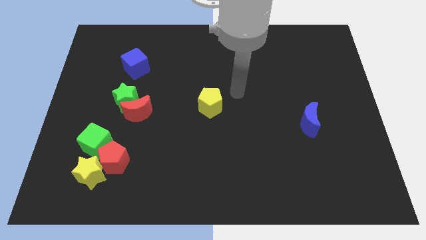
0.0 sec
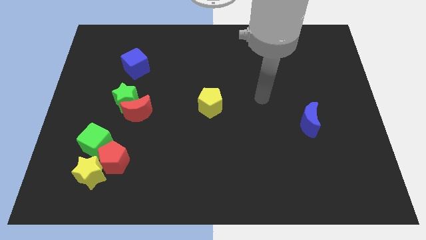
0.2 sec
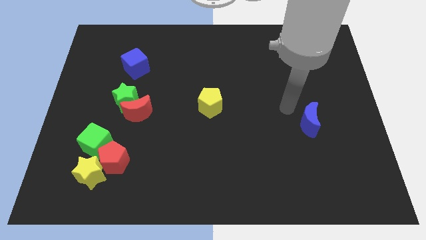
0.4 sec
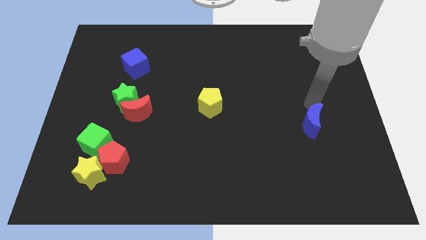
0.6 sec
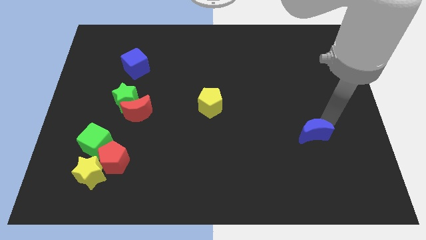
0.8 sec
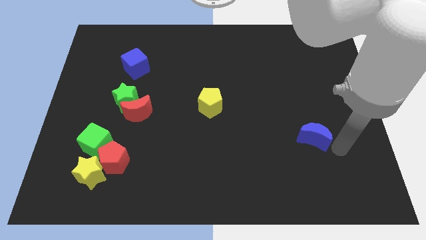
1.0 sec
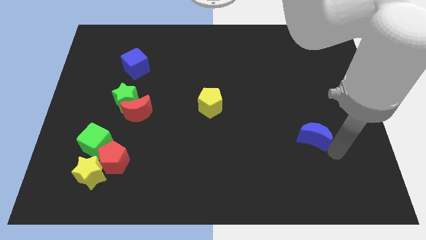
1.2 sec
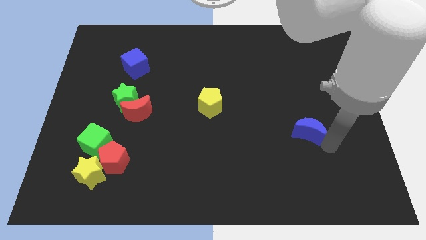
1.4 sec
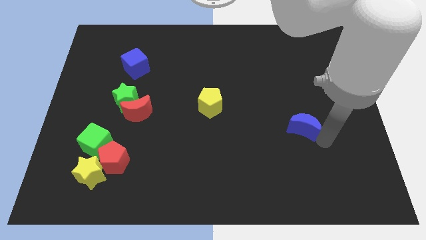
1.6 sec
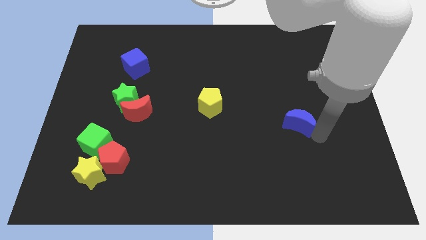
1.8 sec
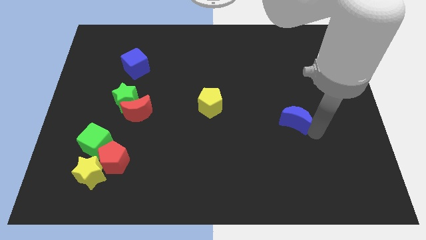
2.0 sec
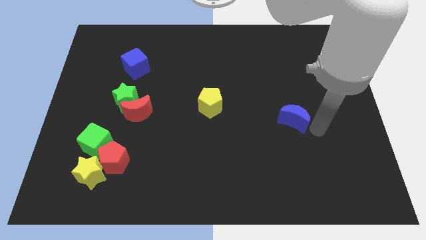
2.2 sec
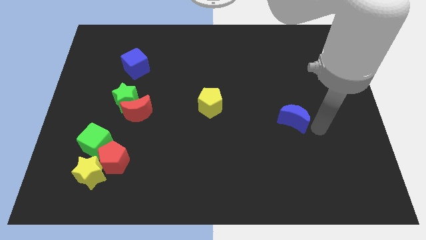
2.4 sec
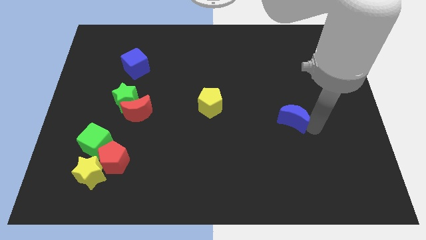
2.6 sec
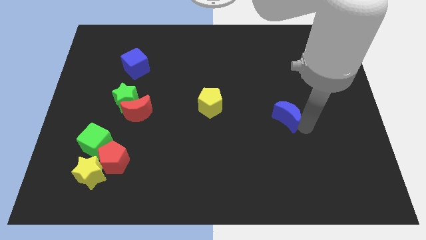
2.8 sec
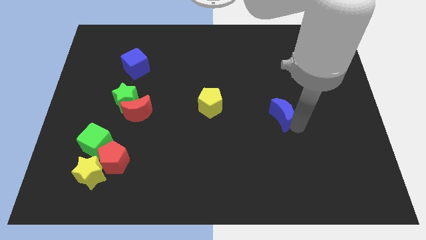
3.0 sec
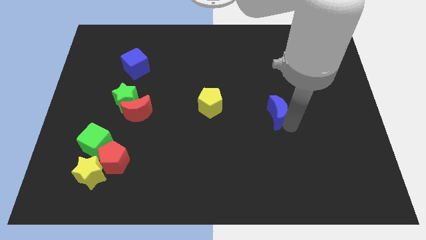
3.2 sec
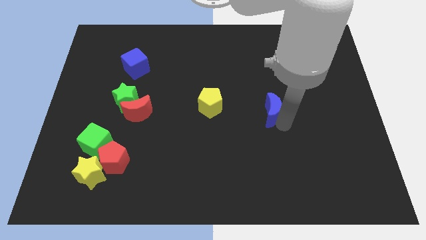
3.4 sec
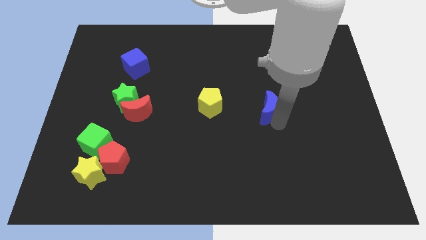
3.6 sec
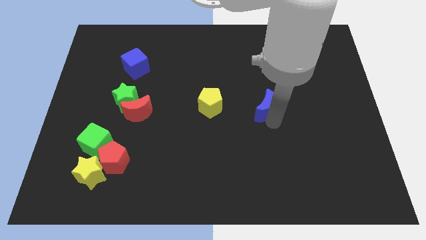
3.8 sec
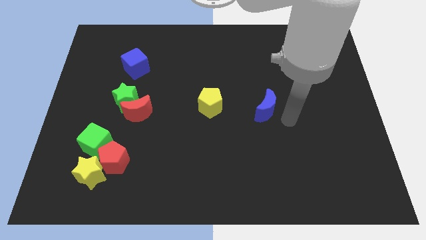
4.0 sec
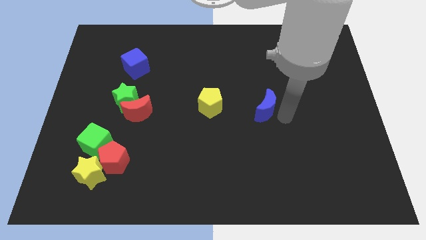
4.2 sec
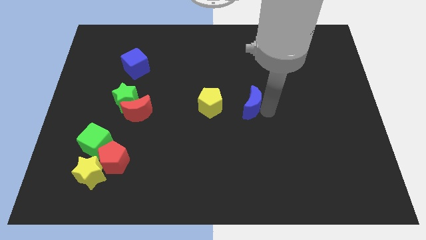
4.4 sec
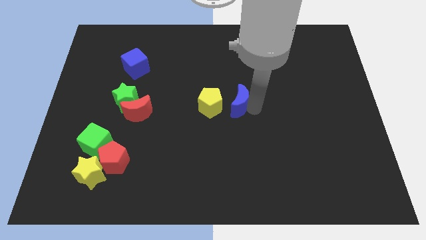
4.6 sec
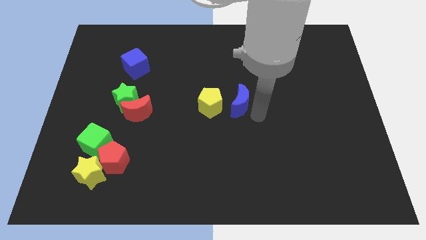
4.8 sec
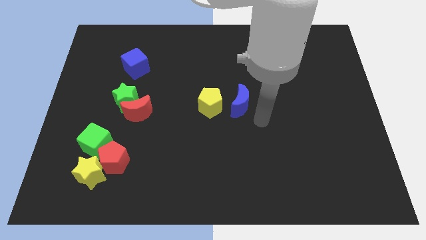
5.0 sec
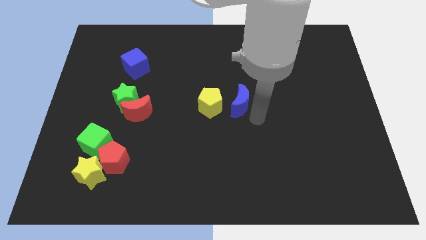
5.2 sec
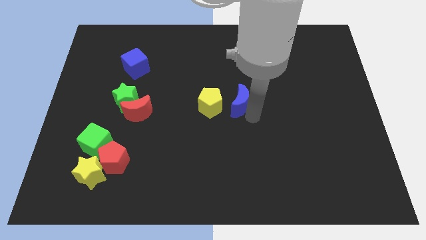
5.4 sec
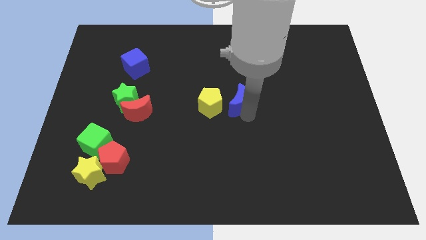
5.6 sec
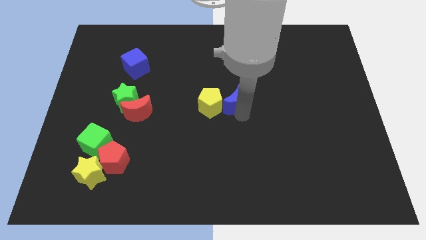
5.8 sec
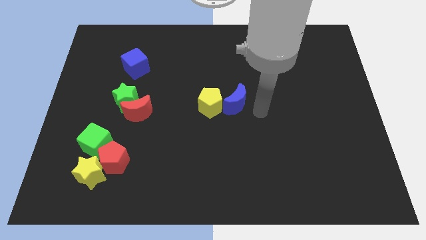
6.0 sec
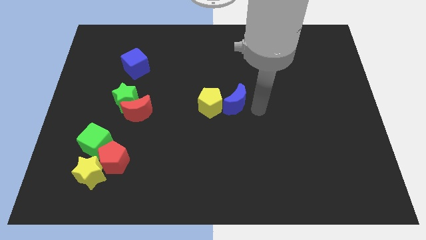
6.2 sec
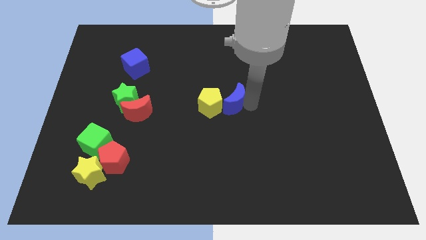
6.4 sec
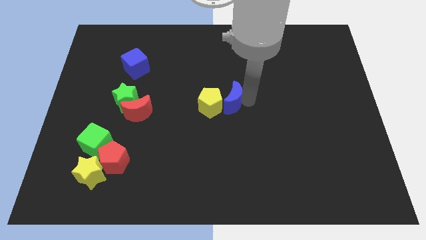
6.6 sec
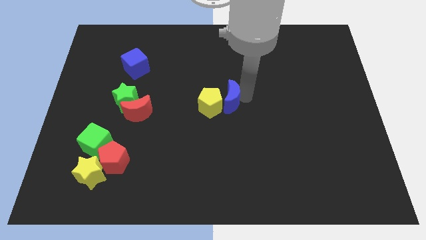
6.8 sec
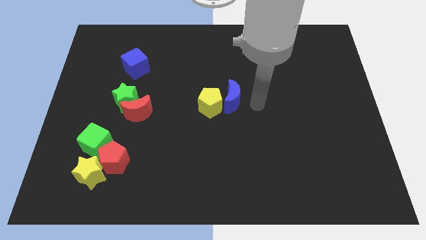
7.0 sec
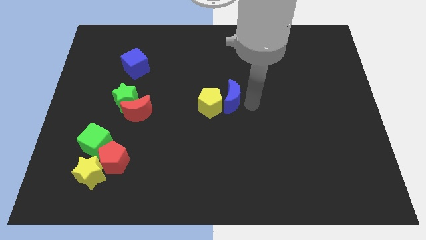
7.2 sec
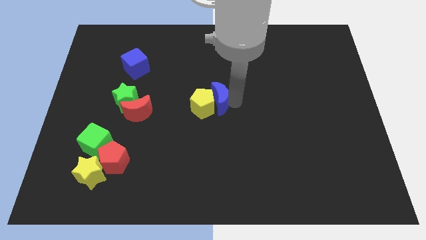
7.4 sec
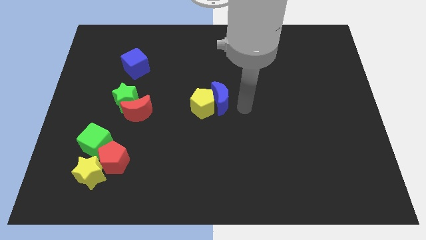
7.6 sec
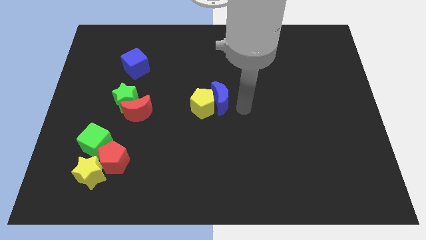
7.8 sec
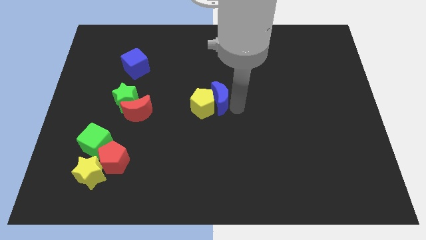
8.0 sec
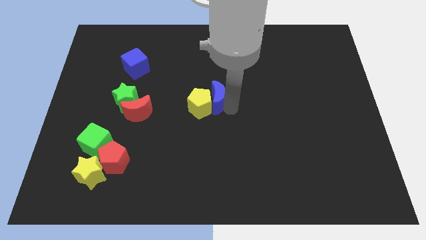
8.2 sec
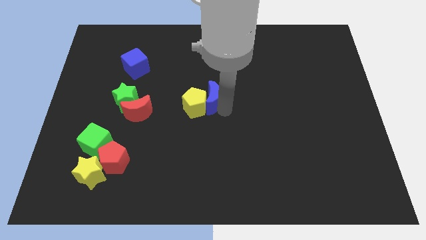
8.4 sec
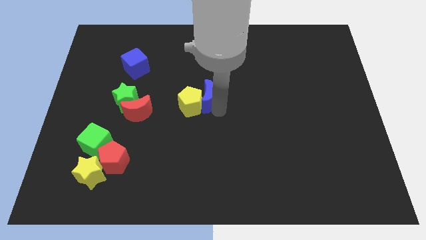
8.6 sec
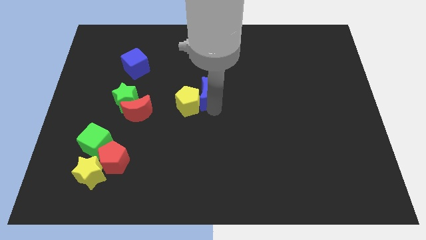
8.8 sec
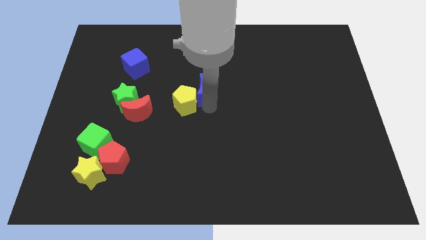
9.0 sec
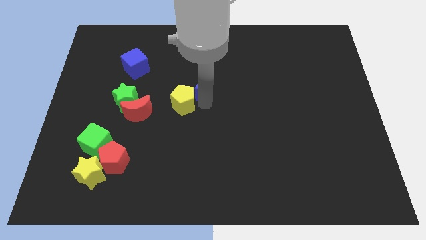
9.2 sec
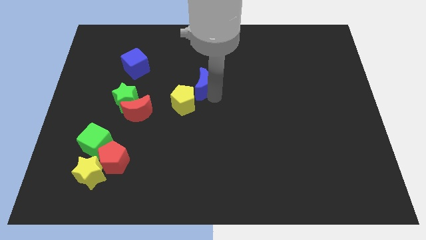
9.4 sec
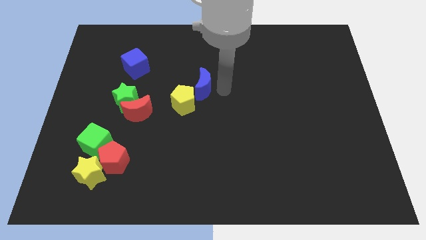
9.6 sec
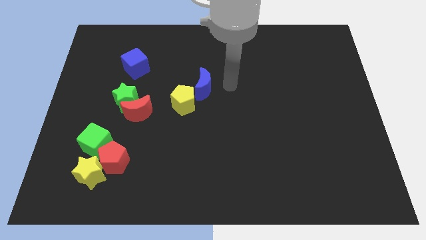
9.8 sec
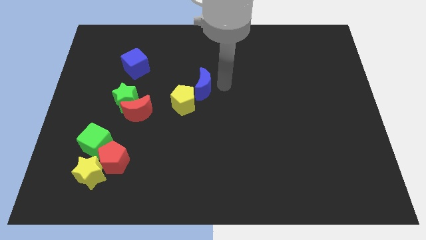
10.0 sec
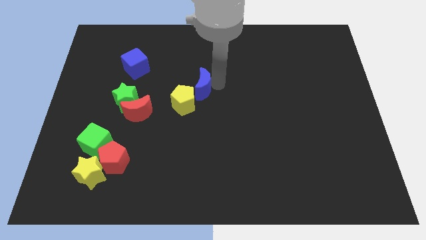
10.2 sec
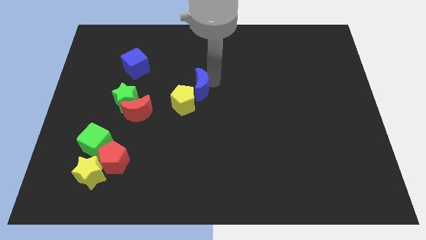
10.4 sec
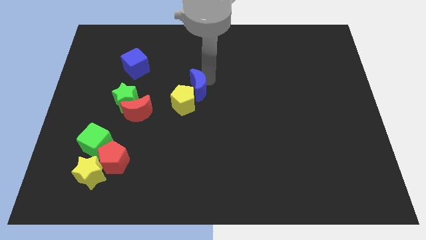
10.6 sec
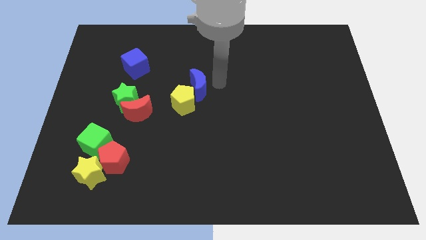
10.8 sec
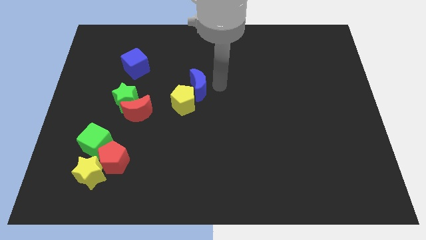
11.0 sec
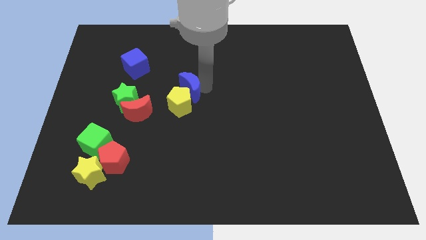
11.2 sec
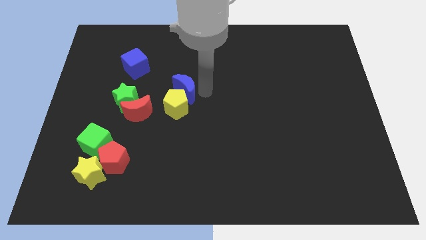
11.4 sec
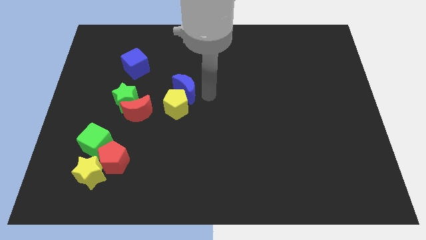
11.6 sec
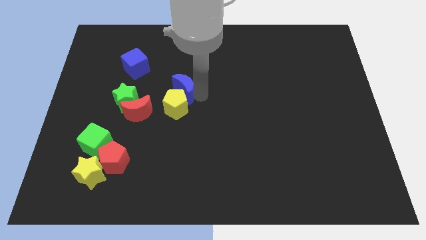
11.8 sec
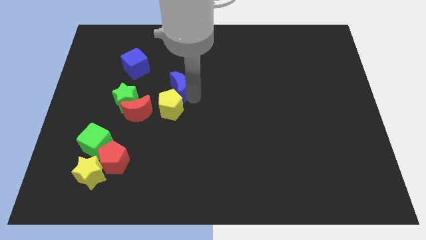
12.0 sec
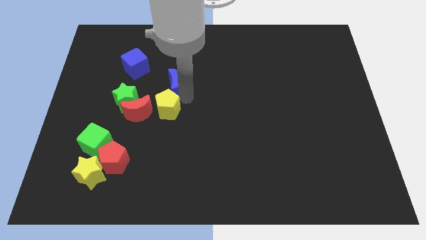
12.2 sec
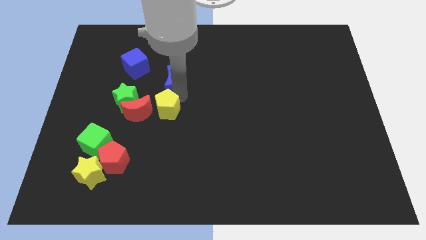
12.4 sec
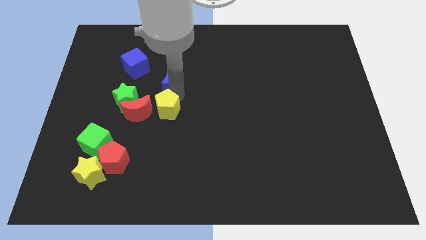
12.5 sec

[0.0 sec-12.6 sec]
put the blue moon to the top right side of the green star

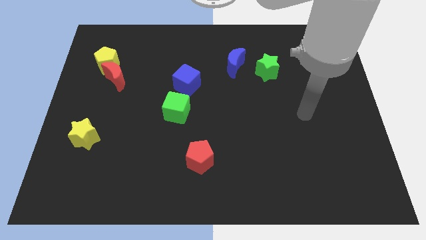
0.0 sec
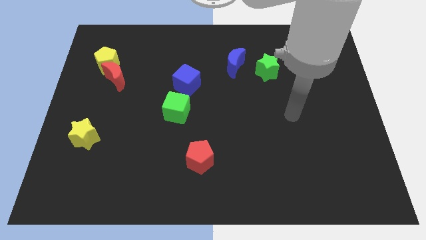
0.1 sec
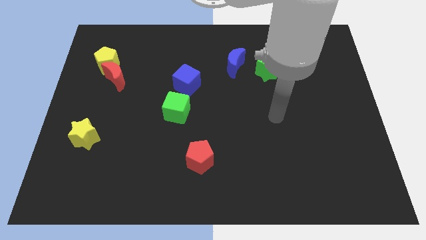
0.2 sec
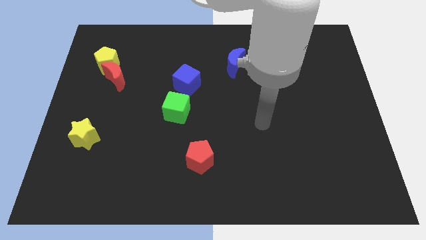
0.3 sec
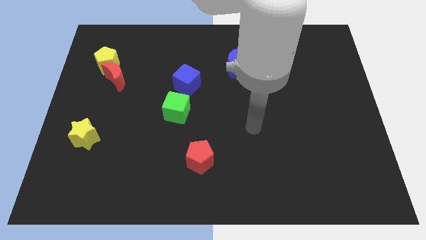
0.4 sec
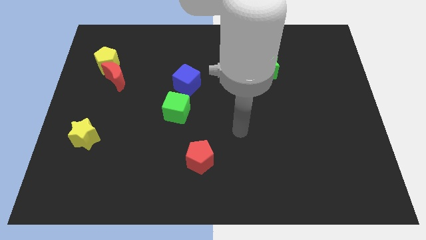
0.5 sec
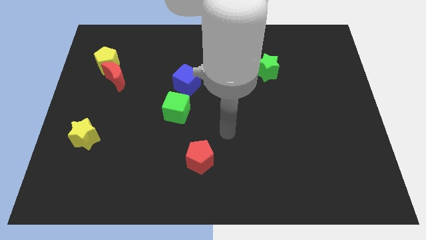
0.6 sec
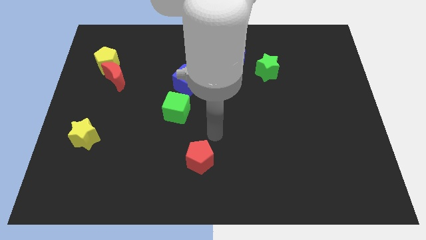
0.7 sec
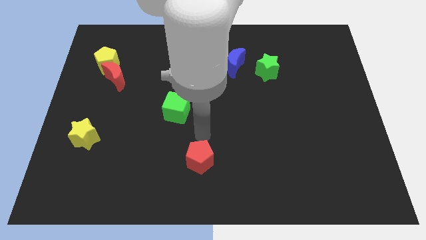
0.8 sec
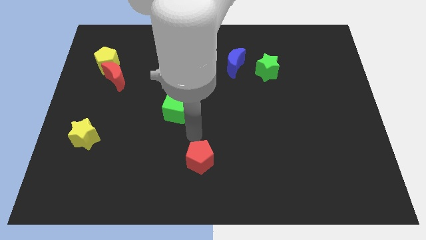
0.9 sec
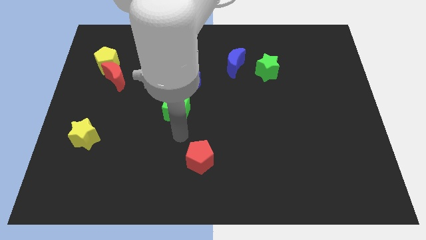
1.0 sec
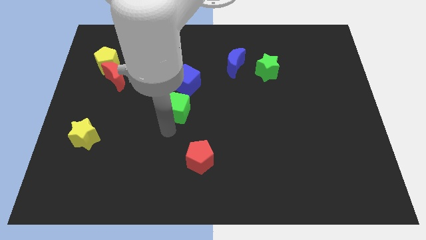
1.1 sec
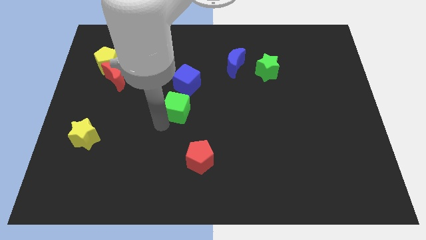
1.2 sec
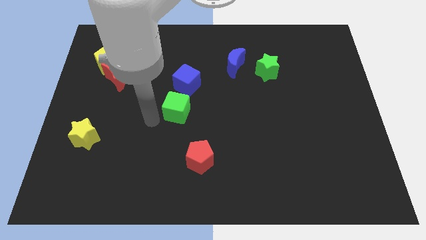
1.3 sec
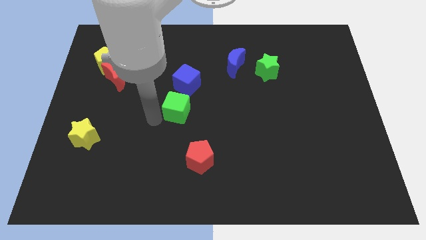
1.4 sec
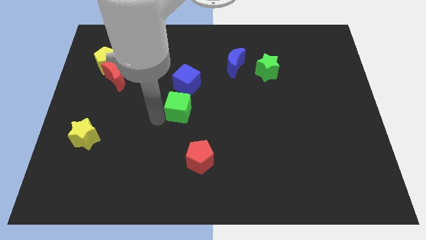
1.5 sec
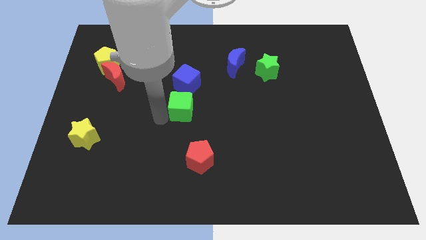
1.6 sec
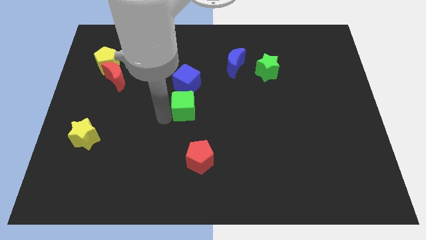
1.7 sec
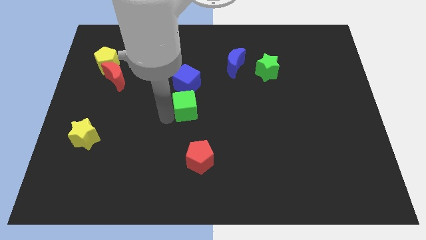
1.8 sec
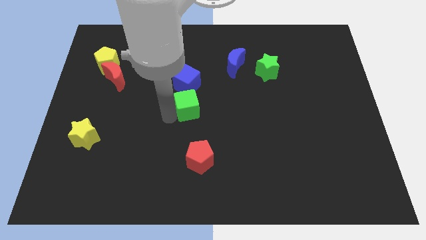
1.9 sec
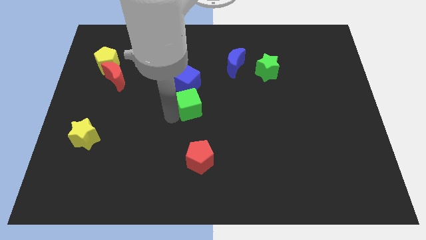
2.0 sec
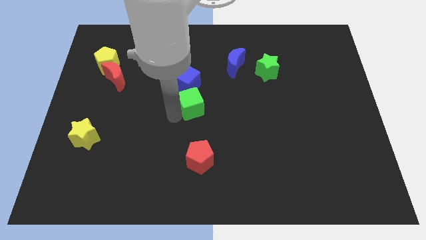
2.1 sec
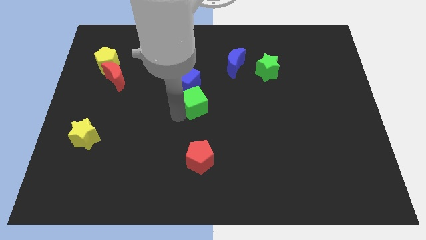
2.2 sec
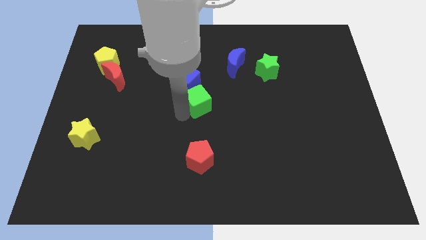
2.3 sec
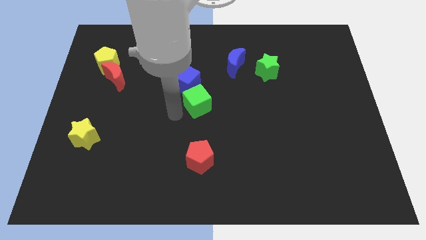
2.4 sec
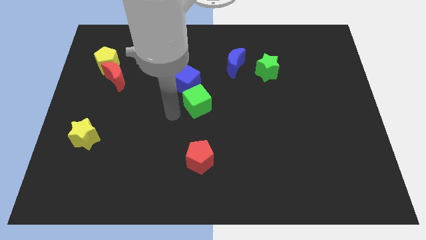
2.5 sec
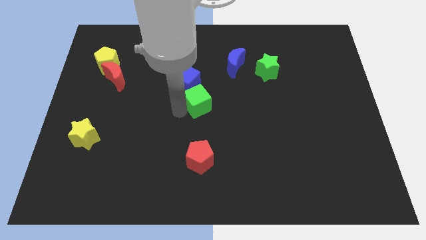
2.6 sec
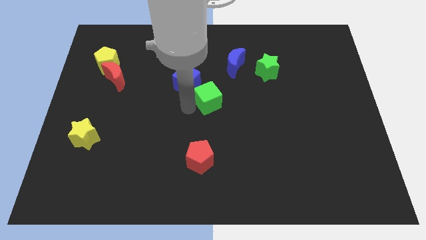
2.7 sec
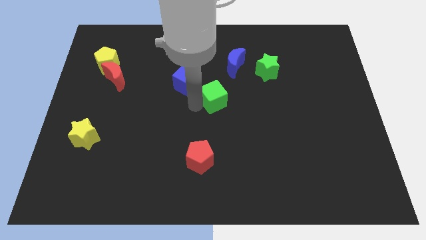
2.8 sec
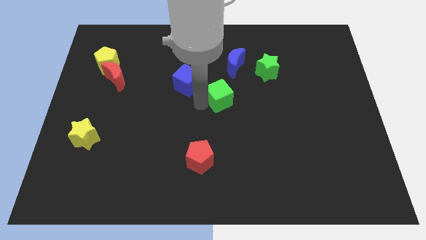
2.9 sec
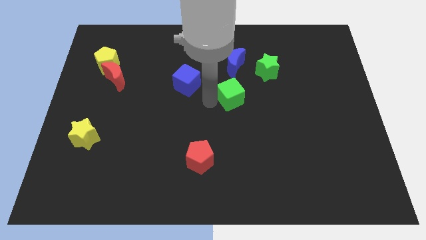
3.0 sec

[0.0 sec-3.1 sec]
push the green cube to the bottom left of the green star
